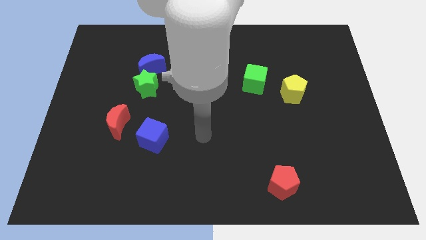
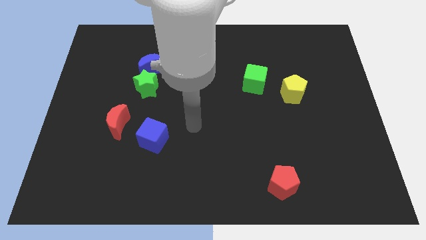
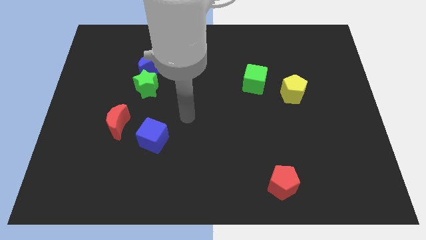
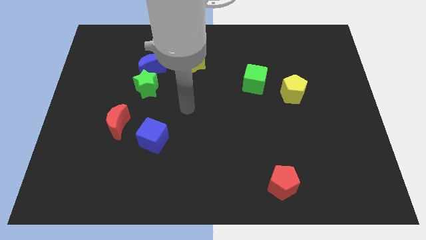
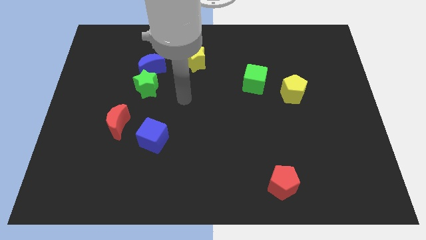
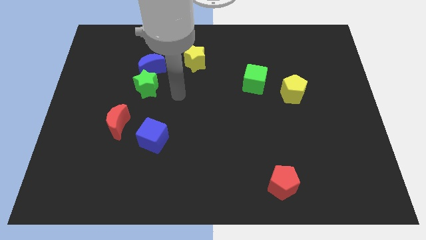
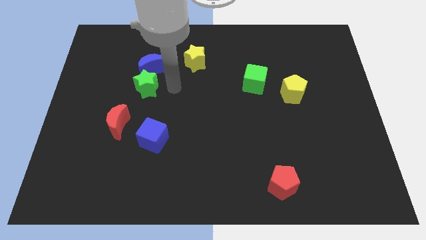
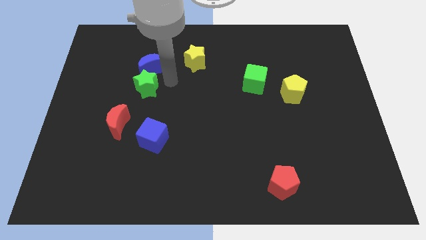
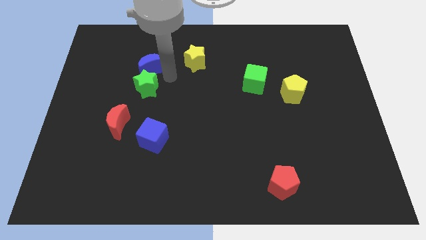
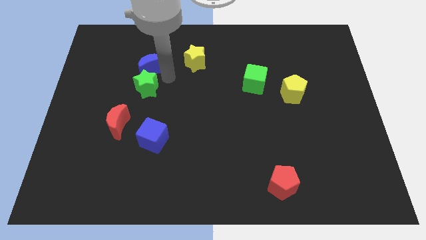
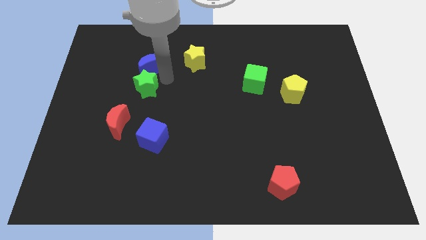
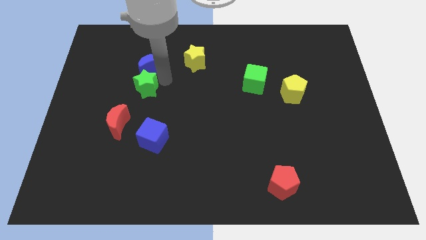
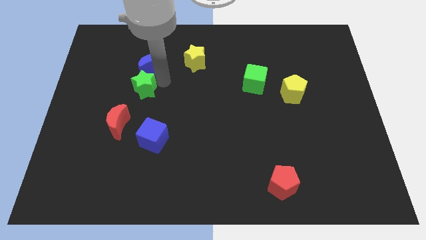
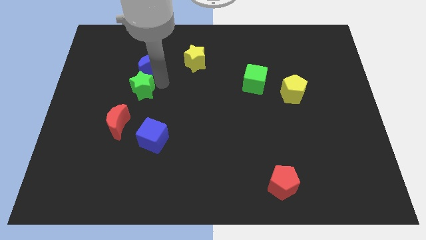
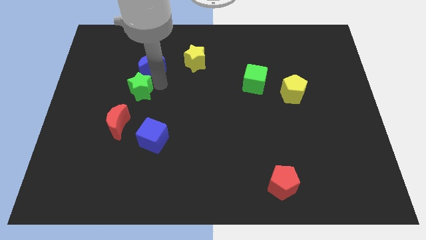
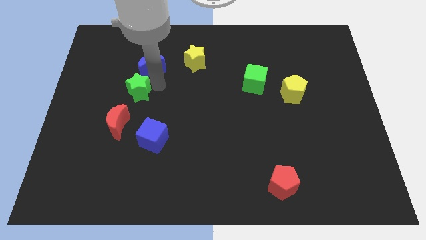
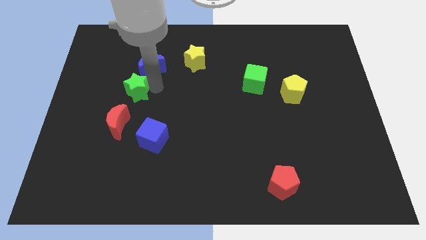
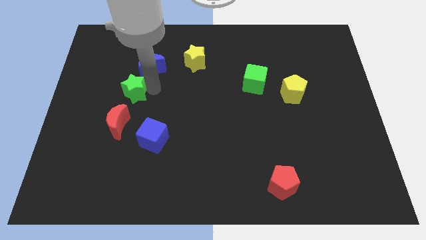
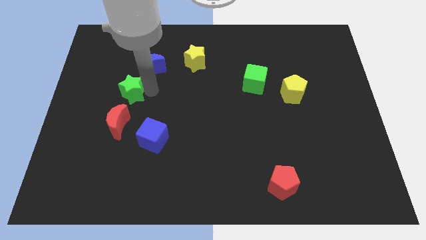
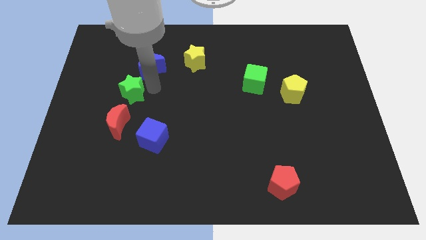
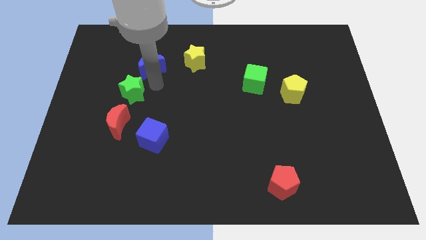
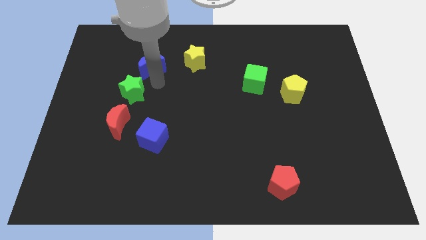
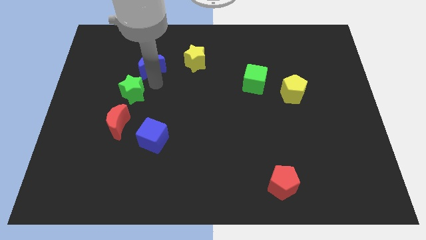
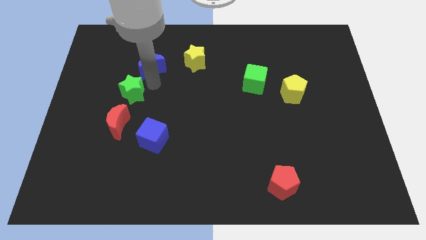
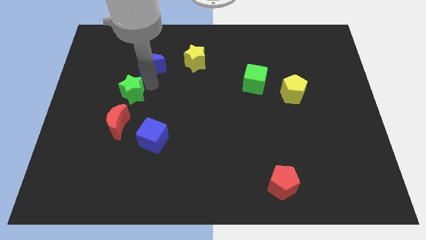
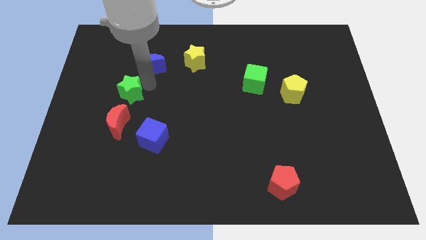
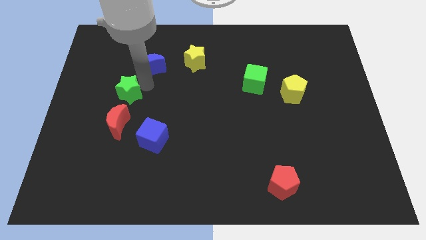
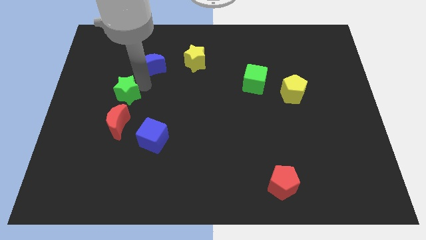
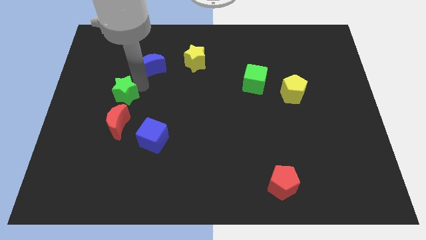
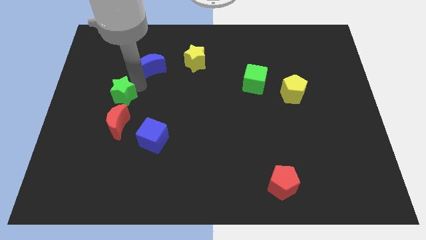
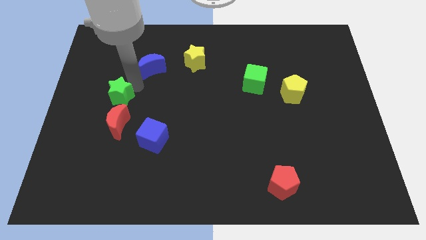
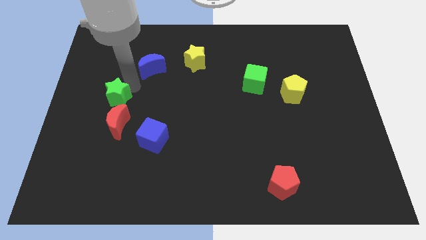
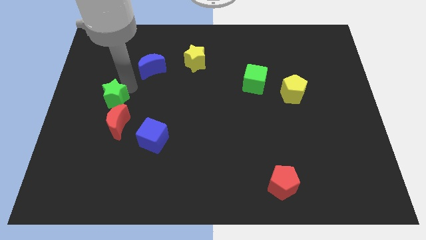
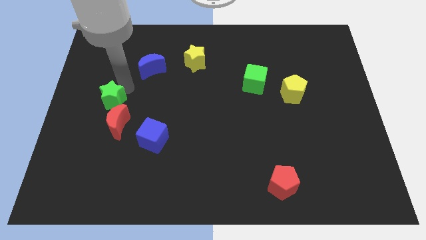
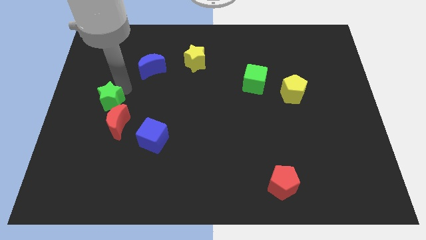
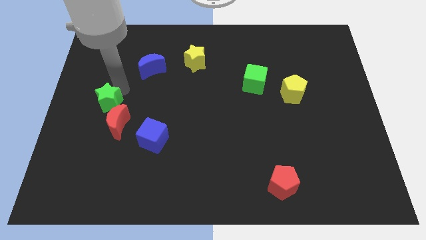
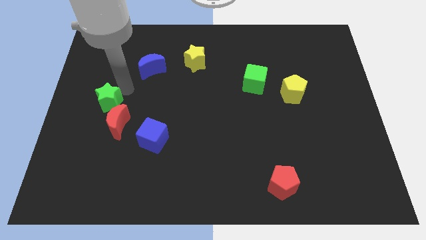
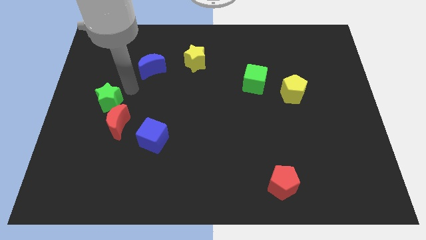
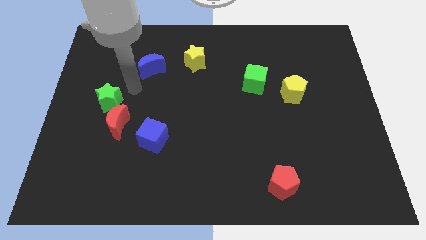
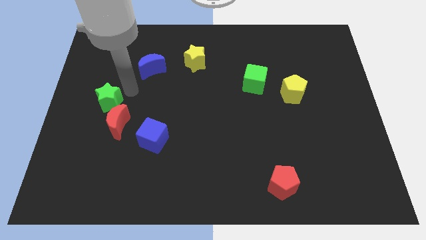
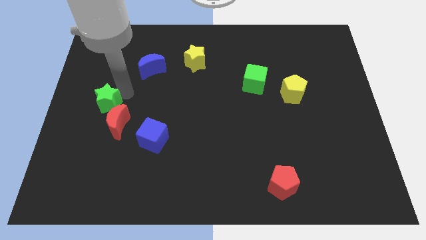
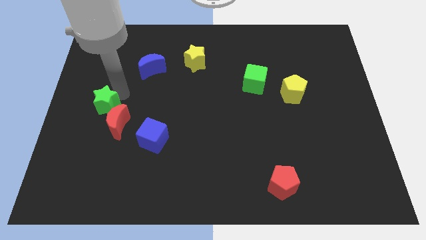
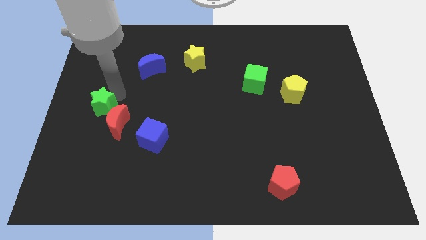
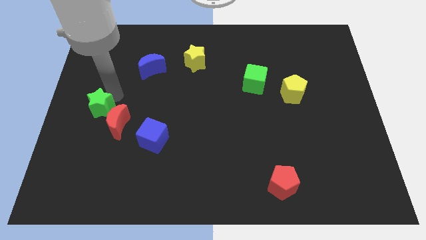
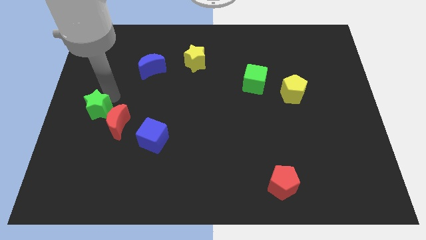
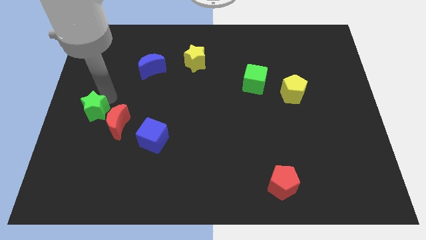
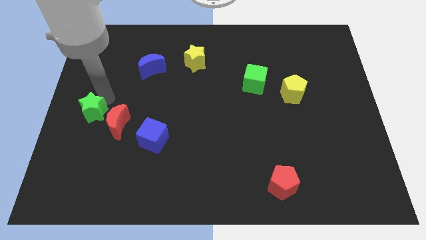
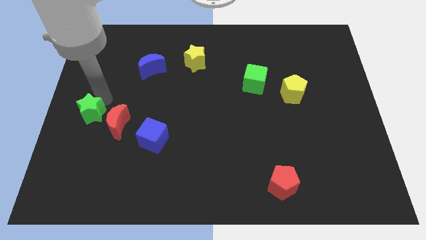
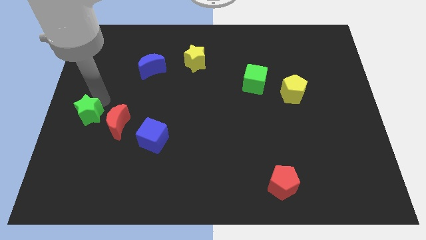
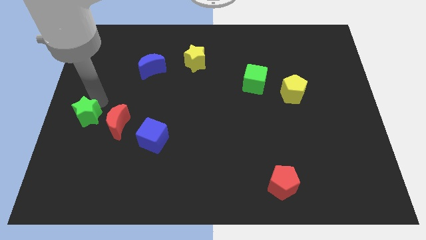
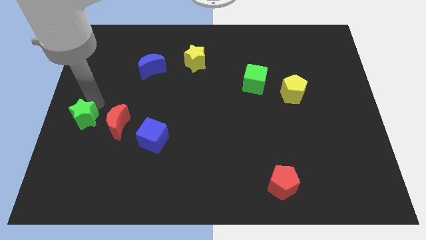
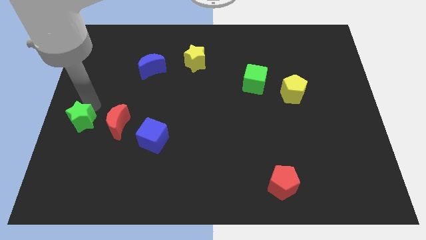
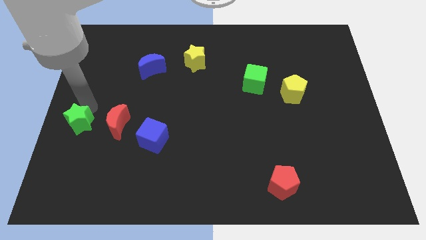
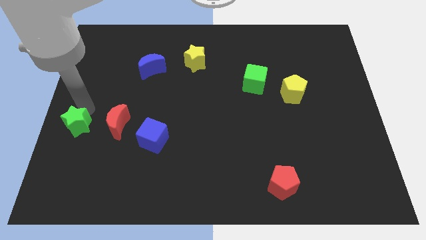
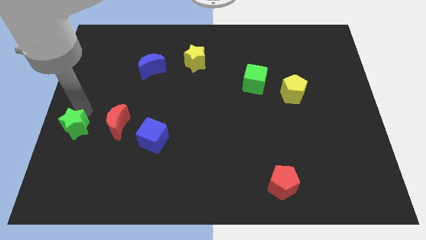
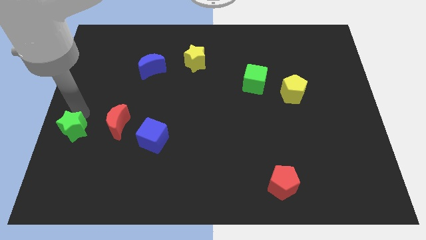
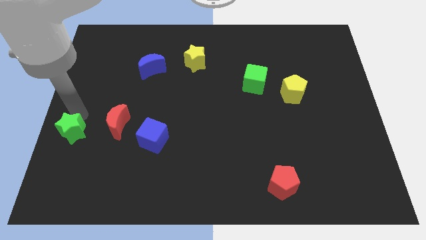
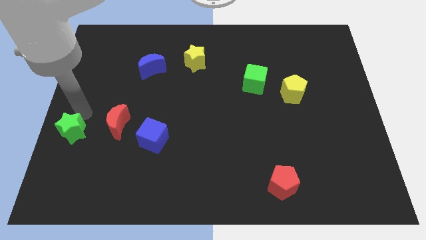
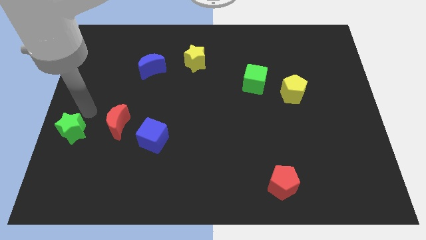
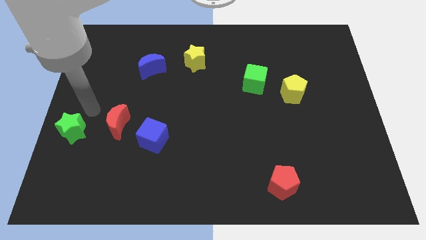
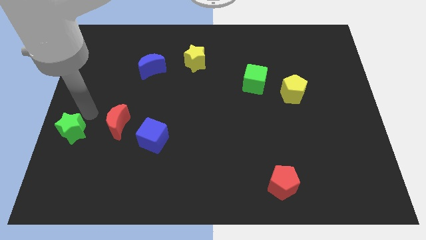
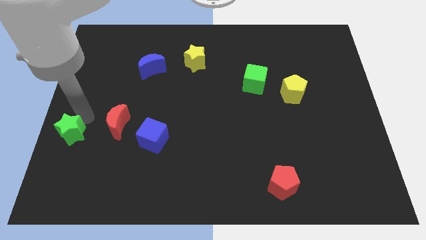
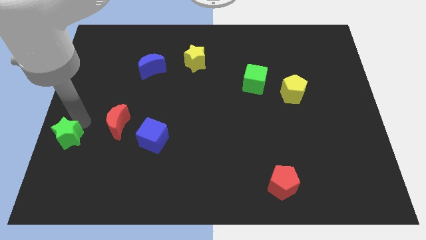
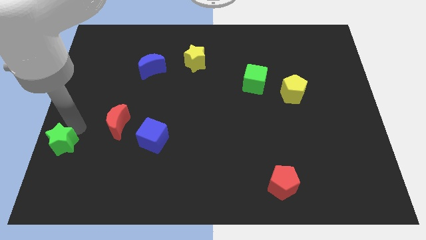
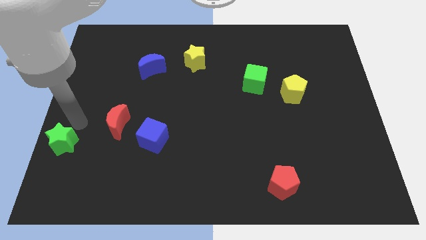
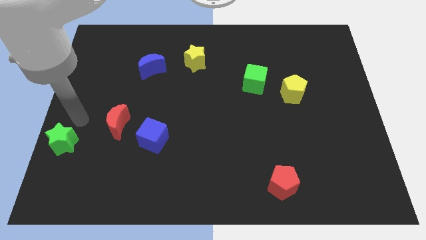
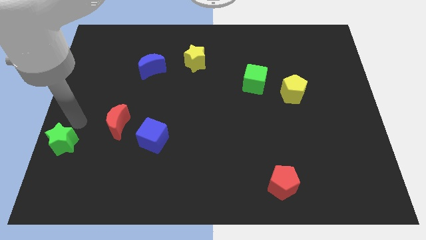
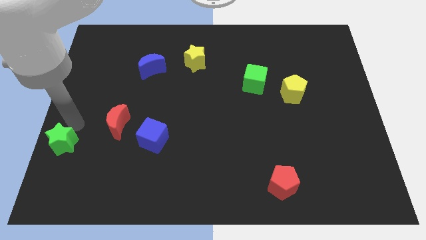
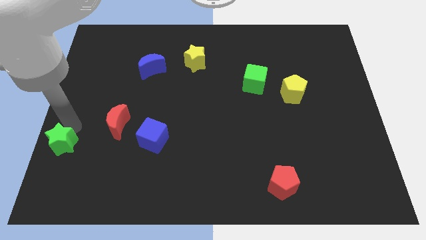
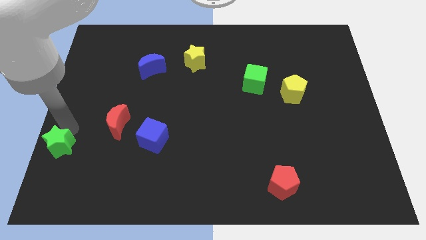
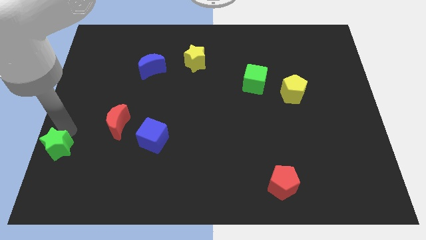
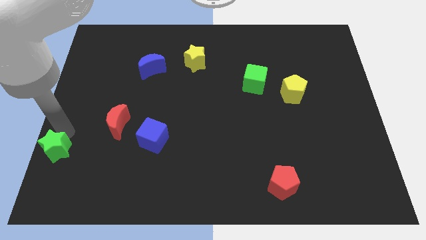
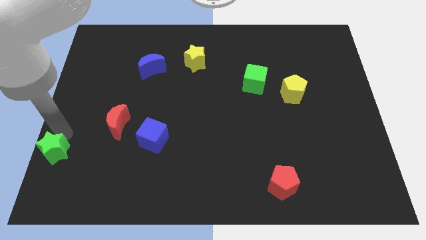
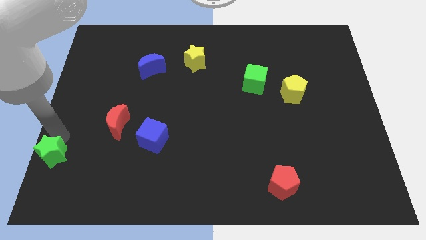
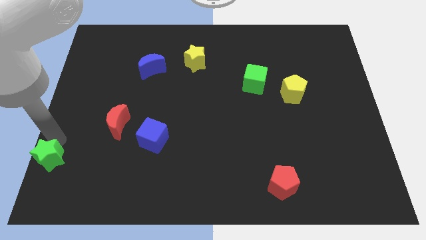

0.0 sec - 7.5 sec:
move the green star to the bottom left corner
